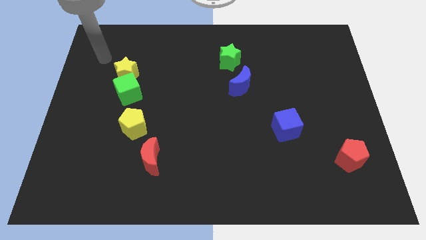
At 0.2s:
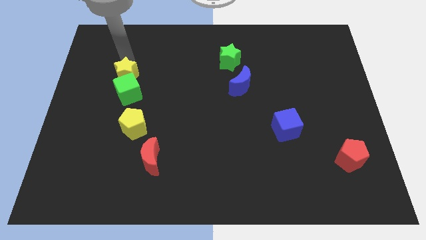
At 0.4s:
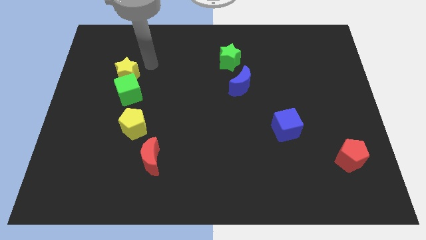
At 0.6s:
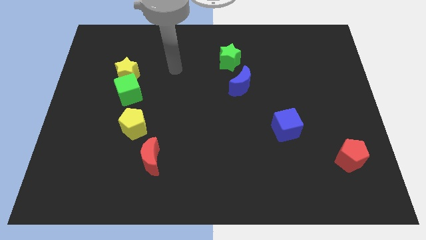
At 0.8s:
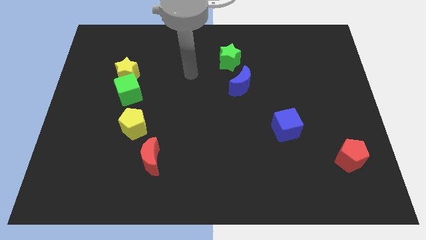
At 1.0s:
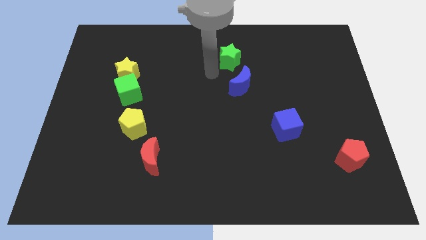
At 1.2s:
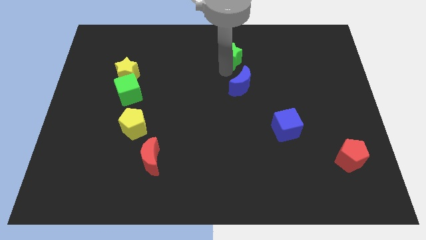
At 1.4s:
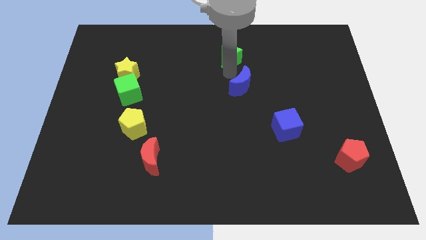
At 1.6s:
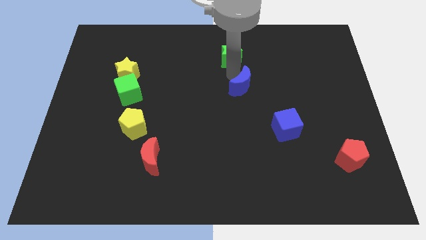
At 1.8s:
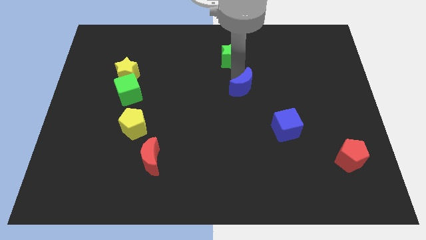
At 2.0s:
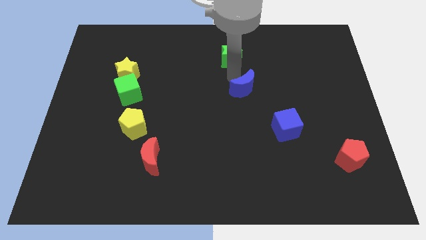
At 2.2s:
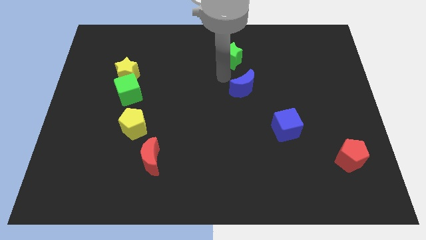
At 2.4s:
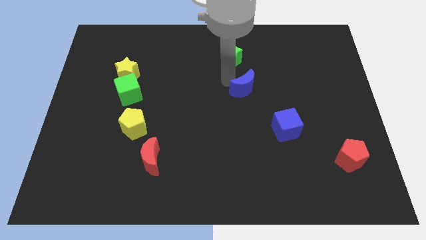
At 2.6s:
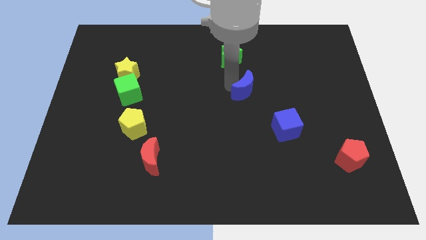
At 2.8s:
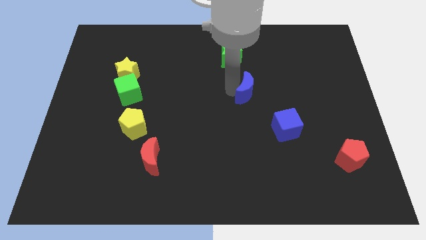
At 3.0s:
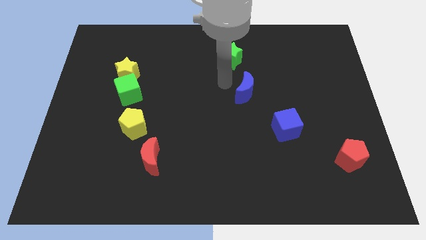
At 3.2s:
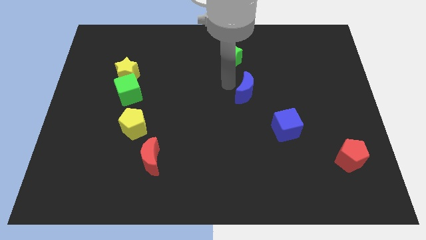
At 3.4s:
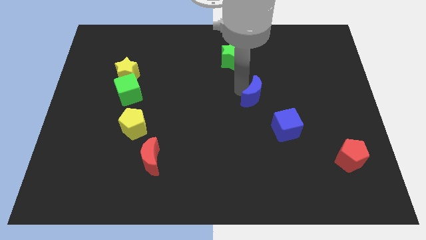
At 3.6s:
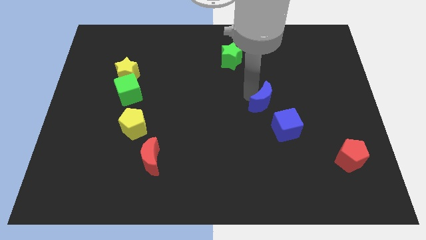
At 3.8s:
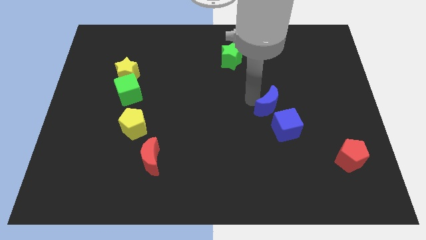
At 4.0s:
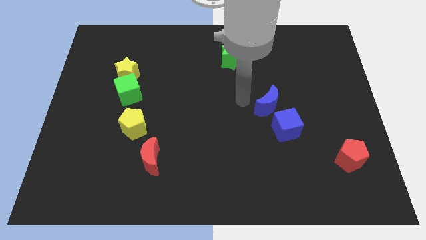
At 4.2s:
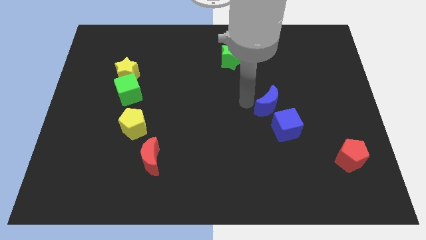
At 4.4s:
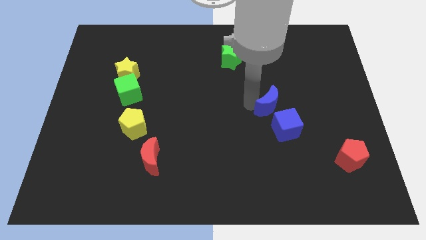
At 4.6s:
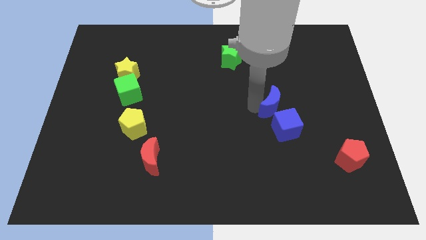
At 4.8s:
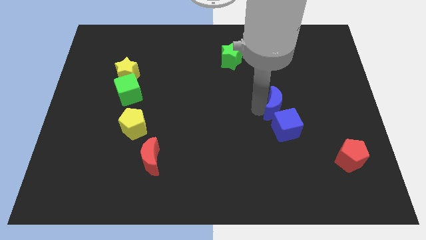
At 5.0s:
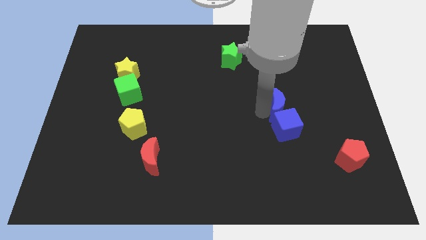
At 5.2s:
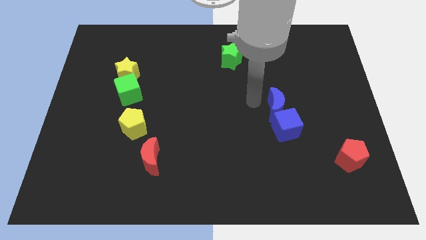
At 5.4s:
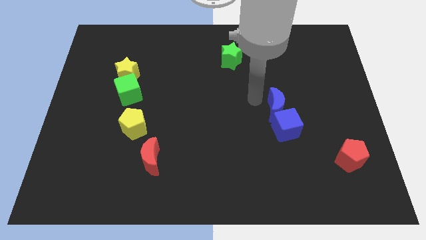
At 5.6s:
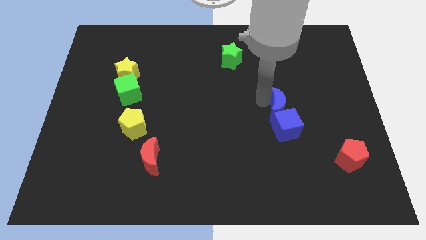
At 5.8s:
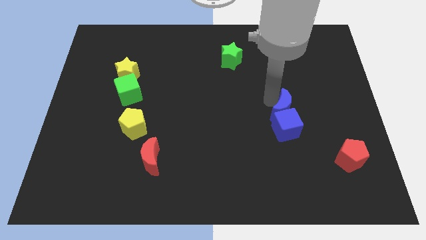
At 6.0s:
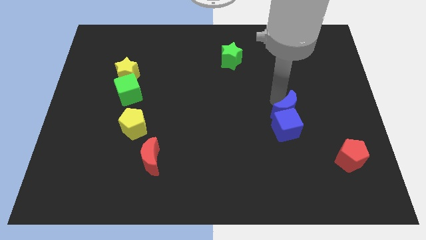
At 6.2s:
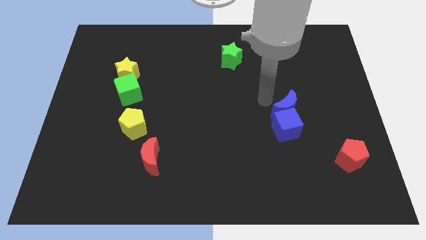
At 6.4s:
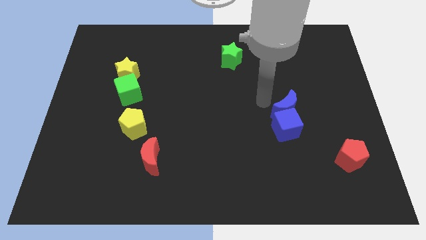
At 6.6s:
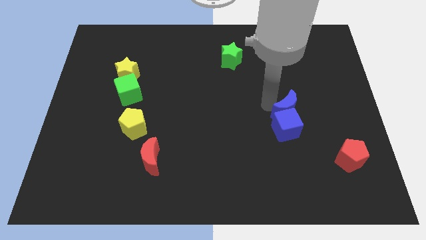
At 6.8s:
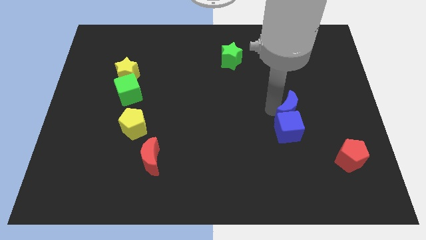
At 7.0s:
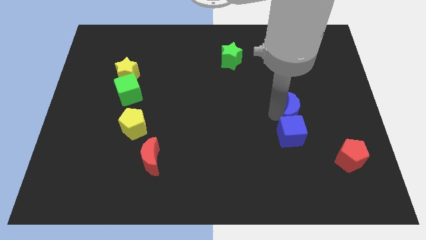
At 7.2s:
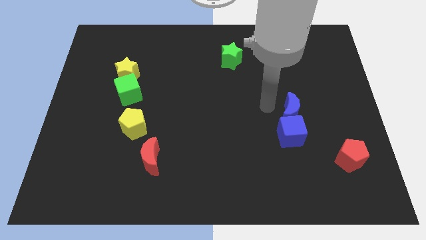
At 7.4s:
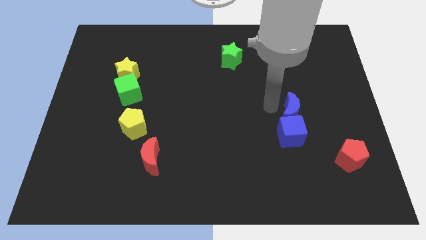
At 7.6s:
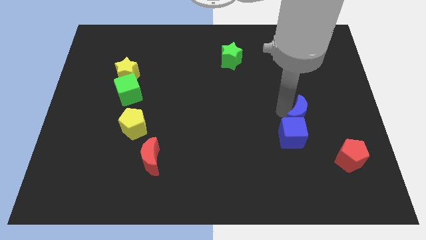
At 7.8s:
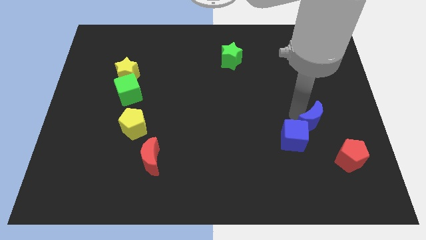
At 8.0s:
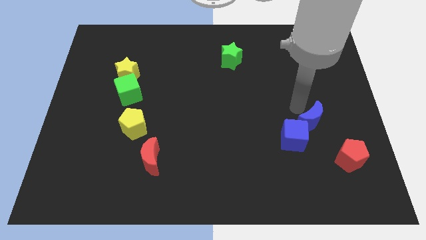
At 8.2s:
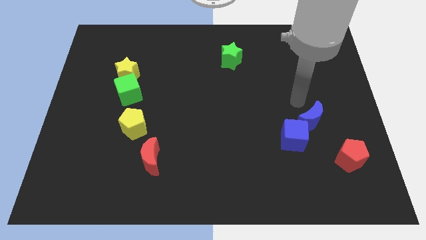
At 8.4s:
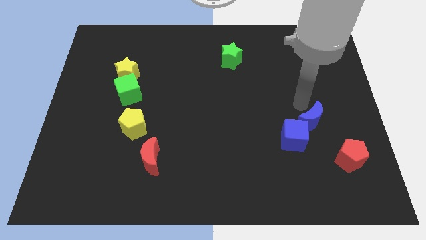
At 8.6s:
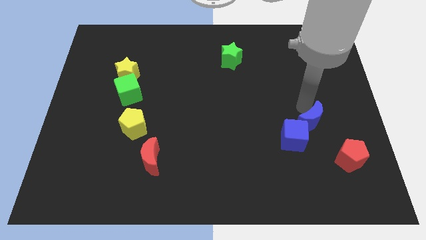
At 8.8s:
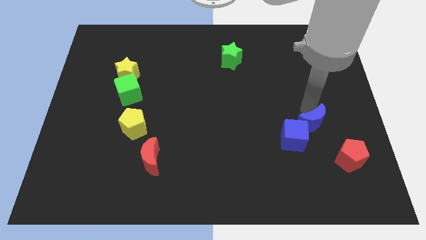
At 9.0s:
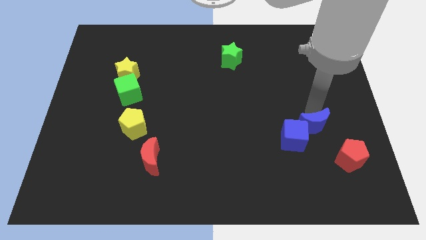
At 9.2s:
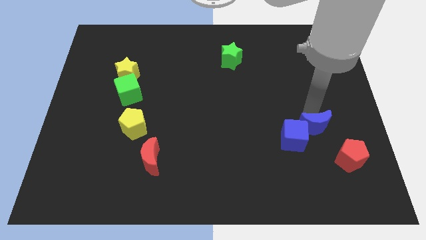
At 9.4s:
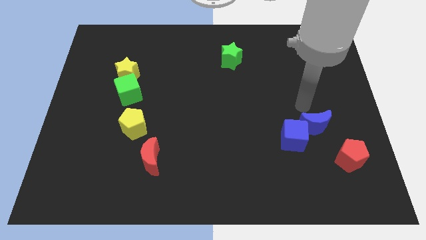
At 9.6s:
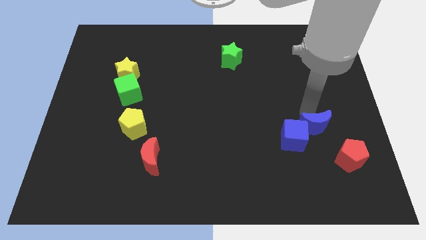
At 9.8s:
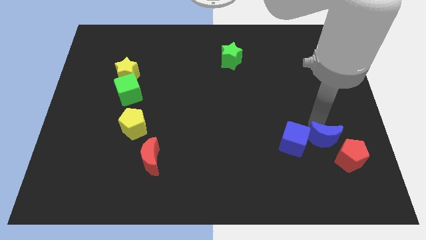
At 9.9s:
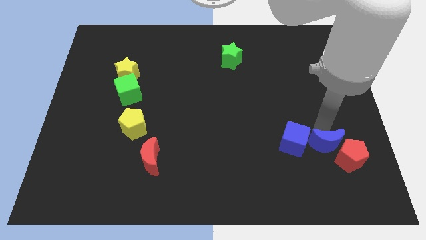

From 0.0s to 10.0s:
slide the blue moon to the bottom right of the blue cube

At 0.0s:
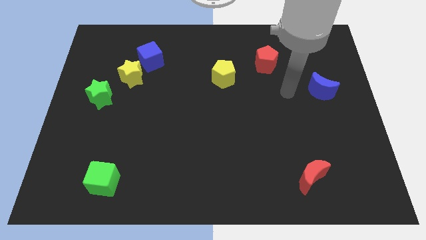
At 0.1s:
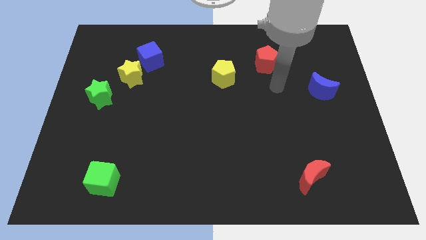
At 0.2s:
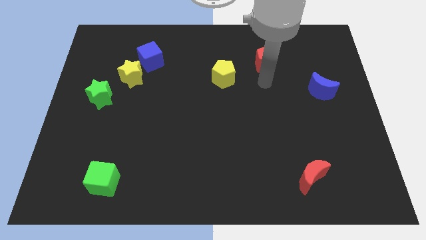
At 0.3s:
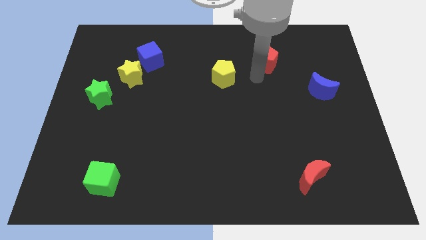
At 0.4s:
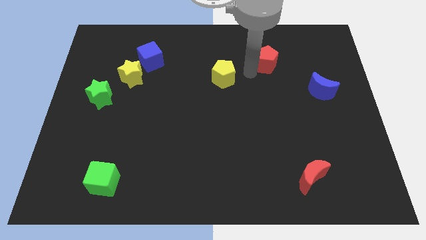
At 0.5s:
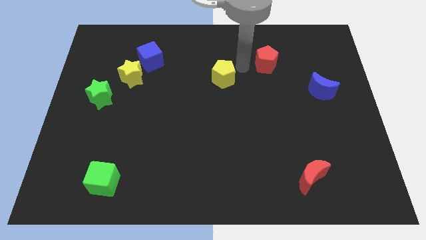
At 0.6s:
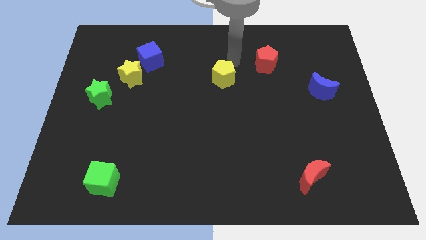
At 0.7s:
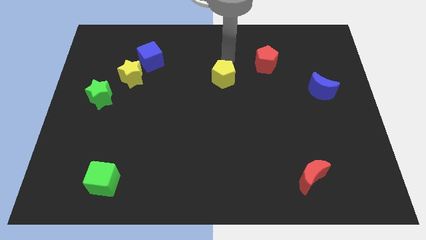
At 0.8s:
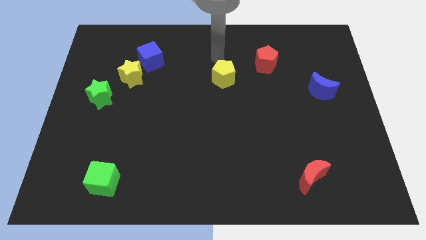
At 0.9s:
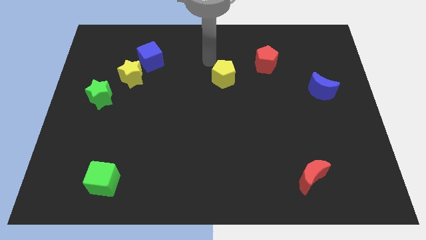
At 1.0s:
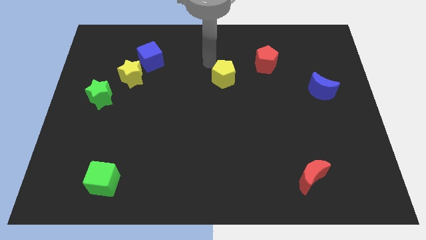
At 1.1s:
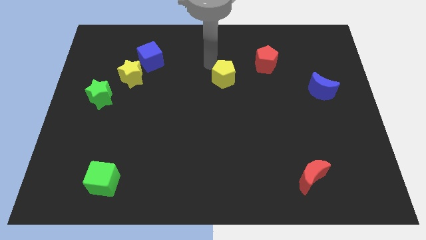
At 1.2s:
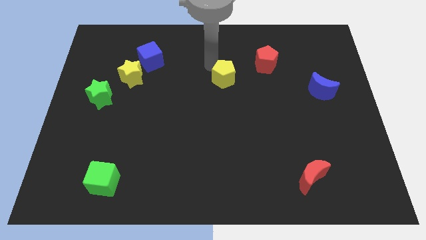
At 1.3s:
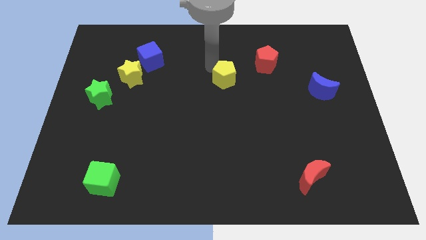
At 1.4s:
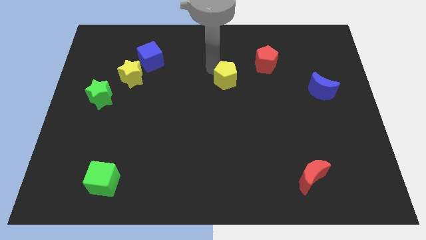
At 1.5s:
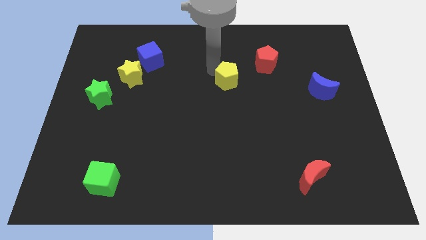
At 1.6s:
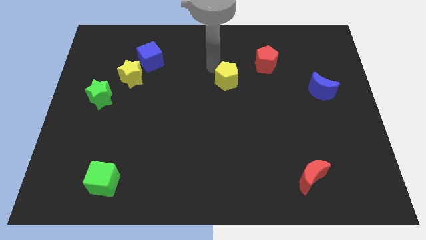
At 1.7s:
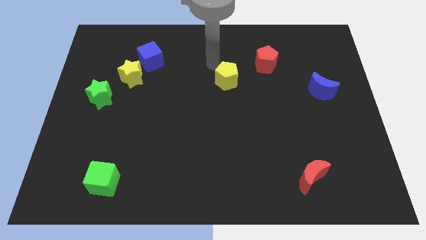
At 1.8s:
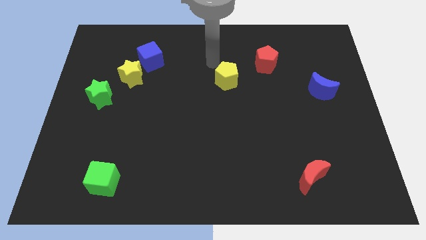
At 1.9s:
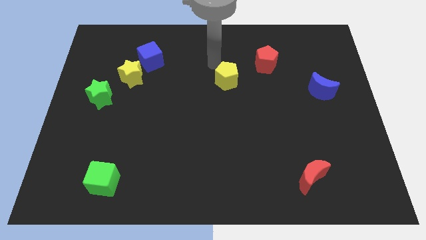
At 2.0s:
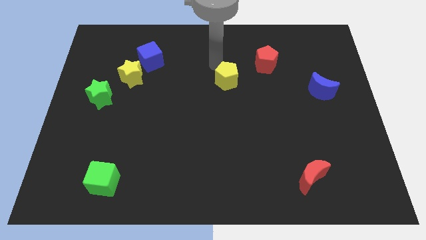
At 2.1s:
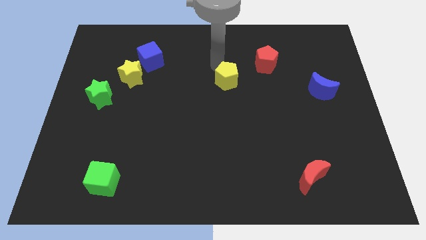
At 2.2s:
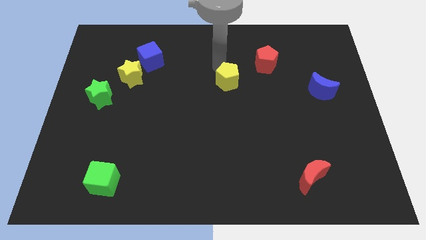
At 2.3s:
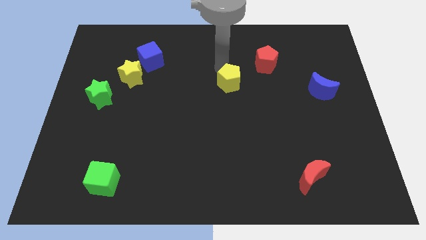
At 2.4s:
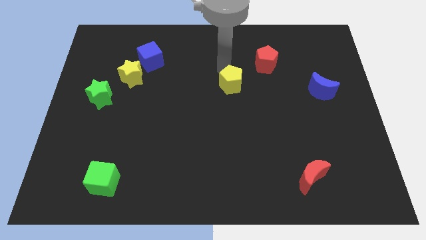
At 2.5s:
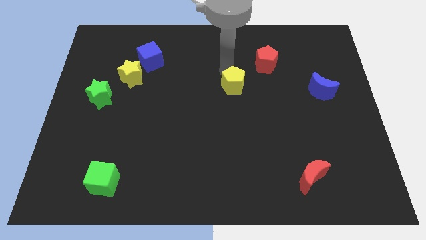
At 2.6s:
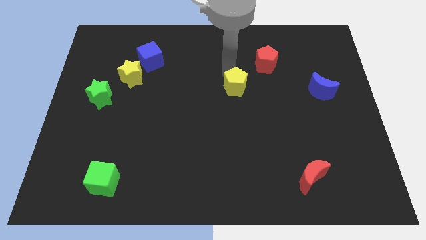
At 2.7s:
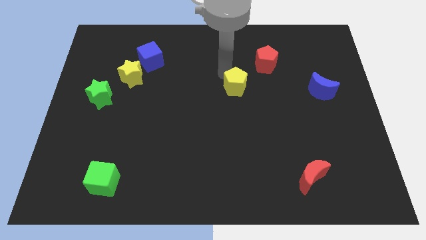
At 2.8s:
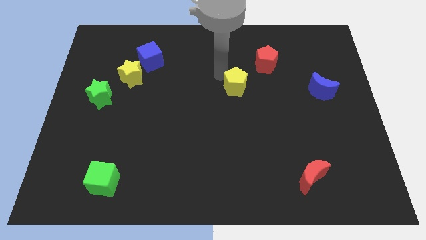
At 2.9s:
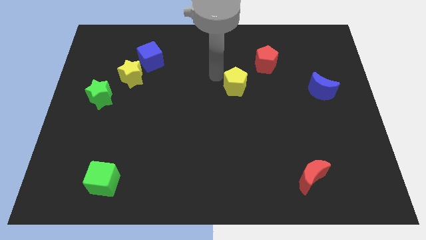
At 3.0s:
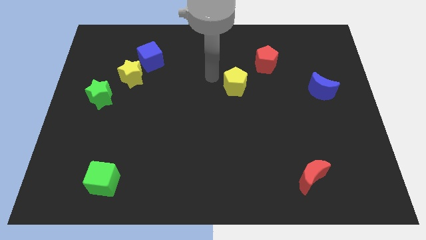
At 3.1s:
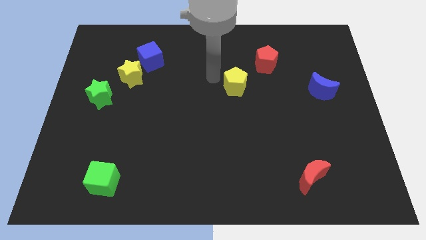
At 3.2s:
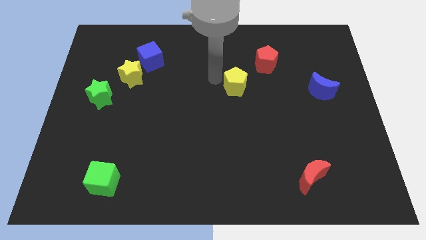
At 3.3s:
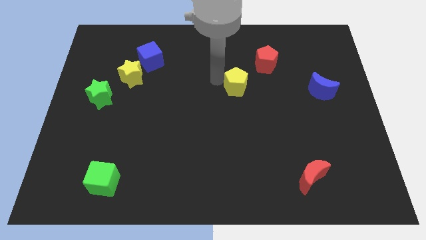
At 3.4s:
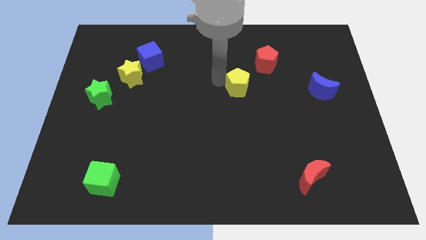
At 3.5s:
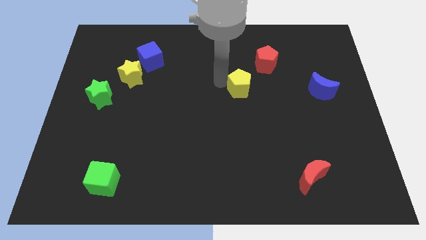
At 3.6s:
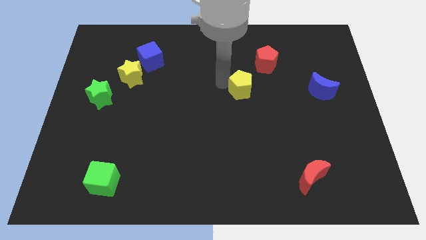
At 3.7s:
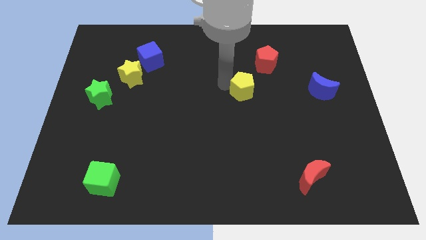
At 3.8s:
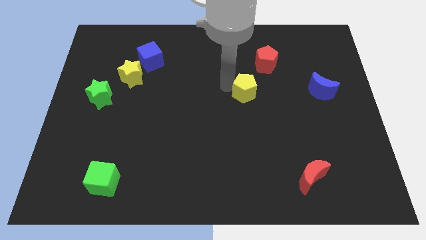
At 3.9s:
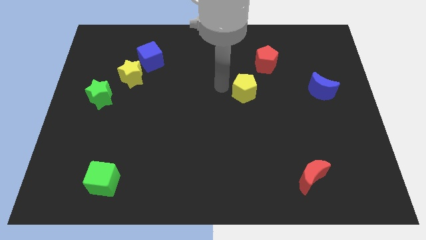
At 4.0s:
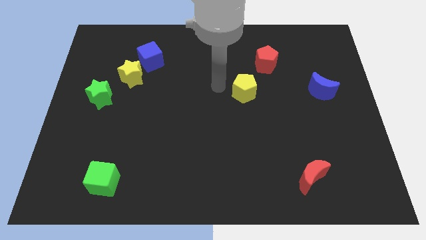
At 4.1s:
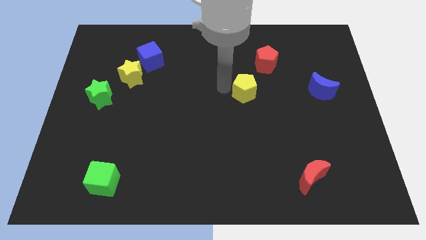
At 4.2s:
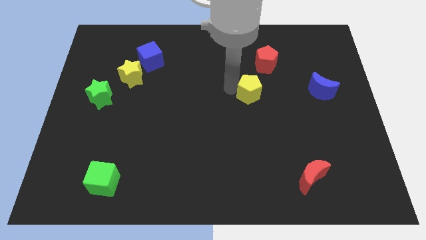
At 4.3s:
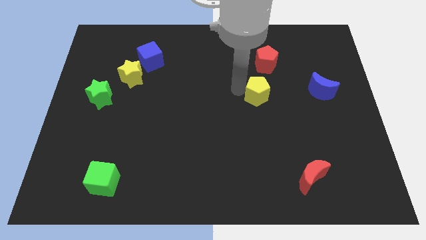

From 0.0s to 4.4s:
move the yellow pentagon to the bottom of the red pentagon
